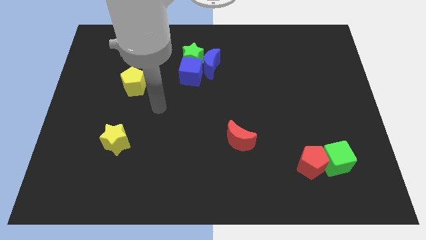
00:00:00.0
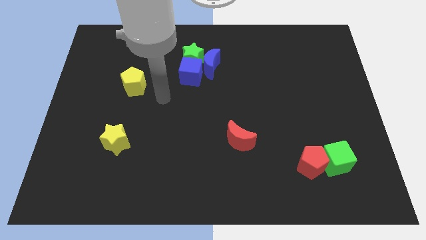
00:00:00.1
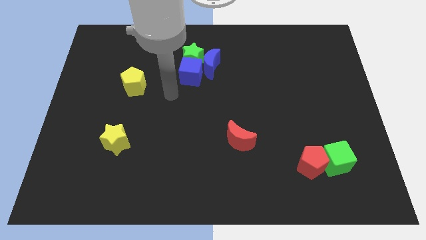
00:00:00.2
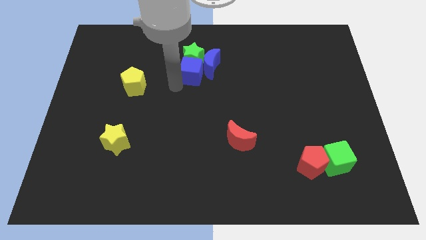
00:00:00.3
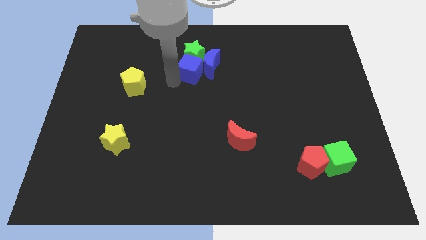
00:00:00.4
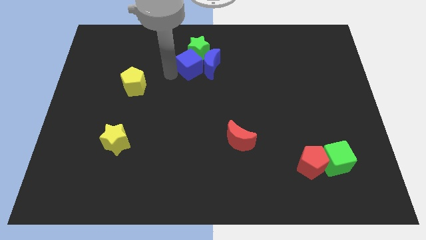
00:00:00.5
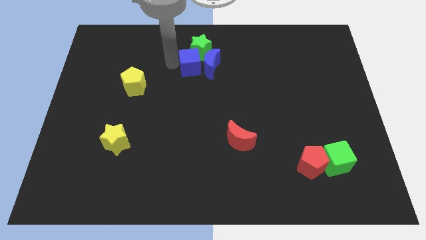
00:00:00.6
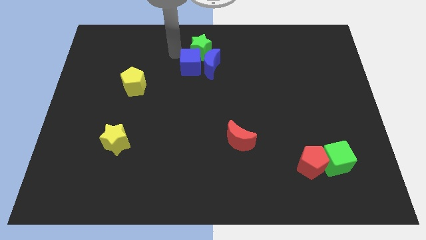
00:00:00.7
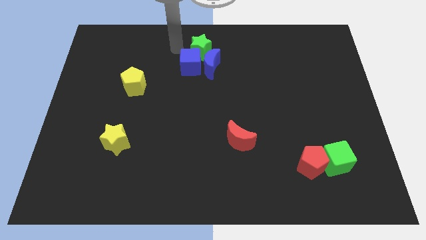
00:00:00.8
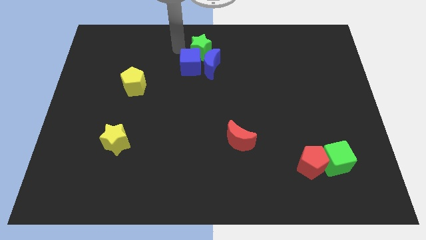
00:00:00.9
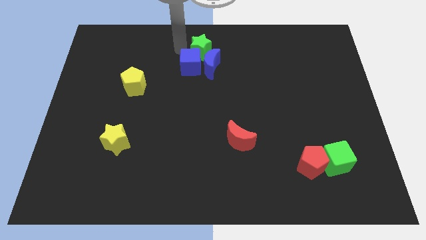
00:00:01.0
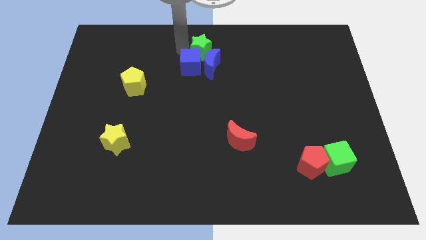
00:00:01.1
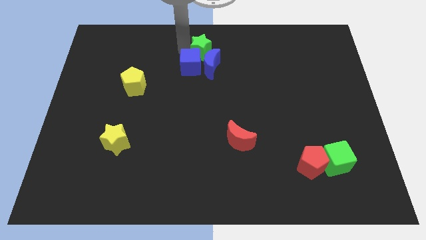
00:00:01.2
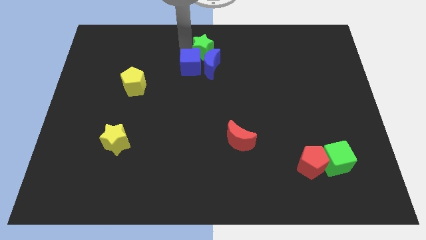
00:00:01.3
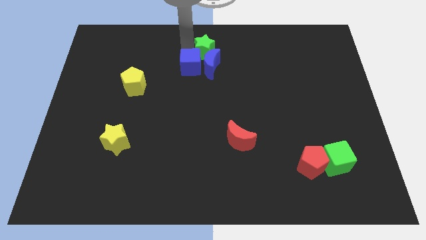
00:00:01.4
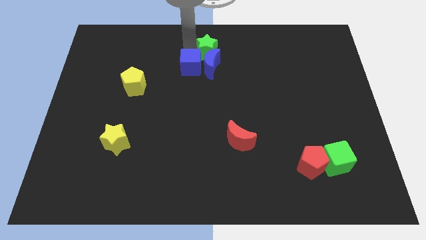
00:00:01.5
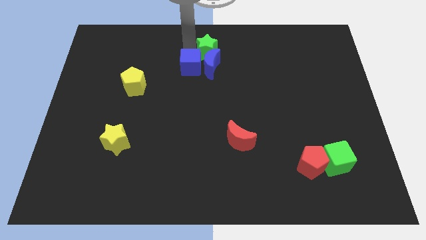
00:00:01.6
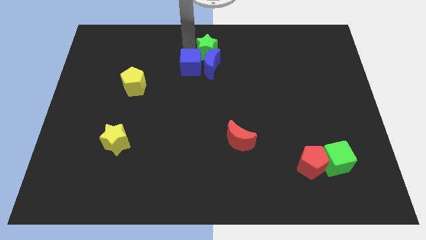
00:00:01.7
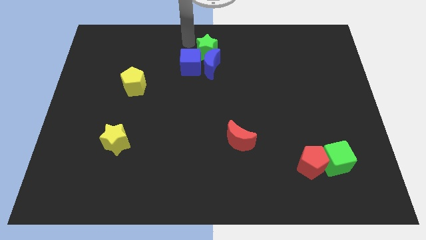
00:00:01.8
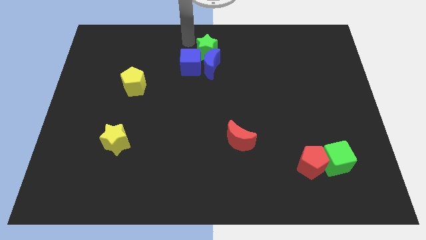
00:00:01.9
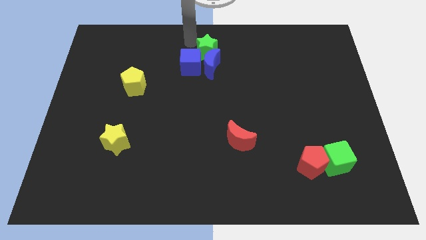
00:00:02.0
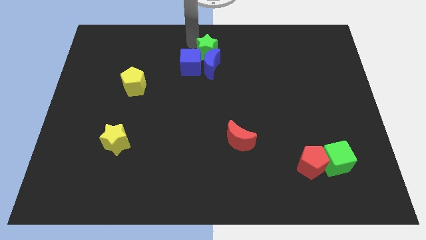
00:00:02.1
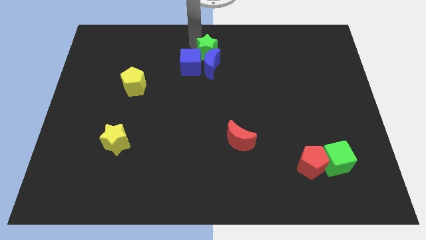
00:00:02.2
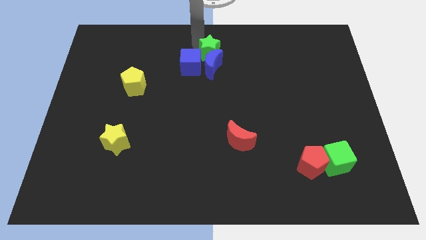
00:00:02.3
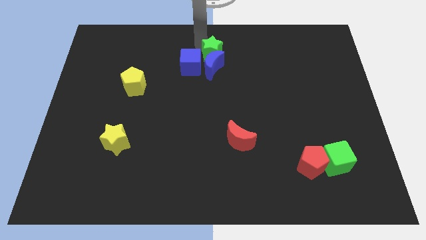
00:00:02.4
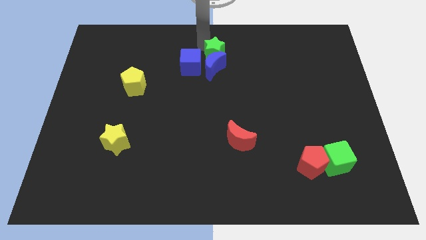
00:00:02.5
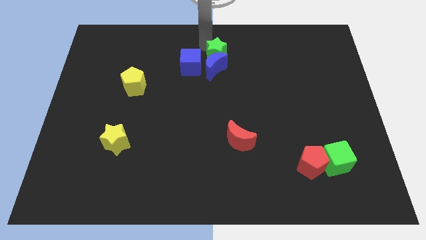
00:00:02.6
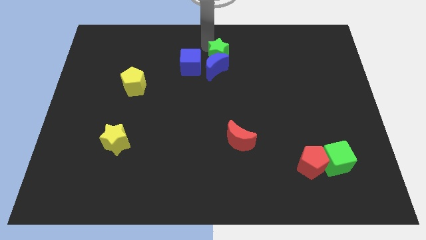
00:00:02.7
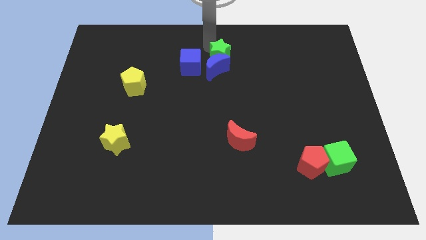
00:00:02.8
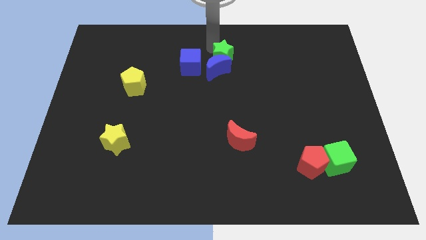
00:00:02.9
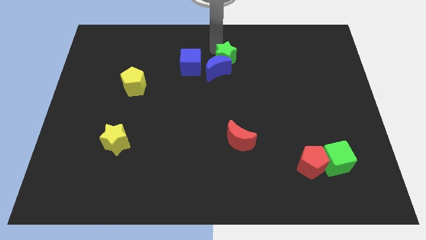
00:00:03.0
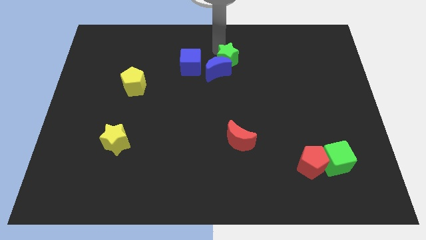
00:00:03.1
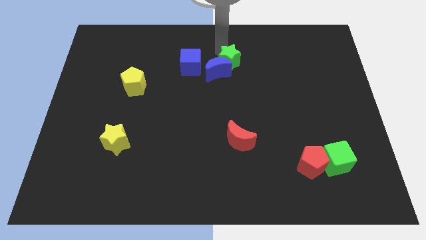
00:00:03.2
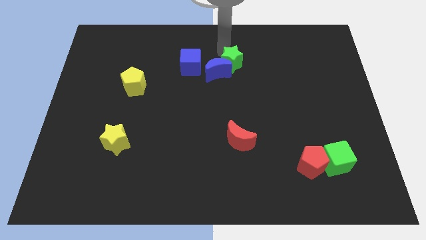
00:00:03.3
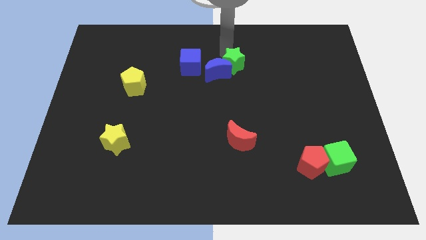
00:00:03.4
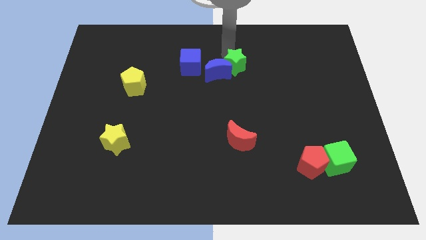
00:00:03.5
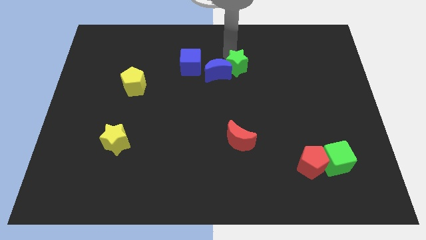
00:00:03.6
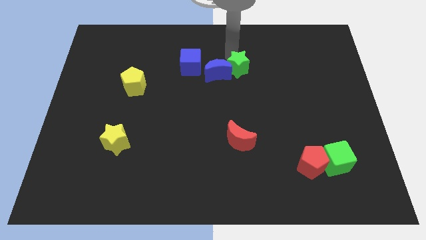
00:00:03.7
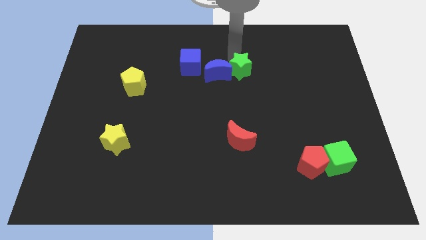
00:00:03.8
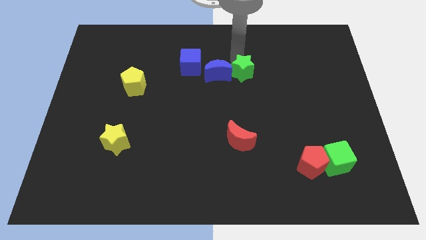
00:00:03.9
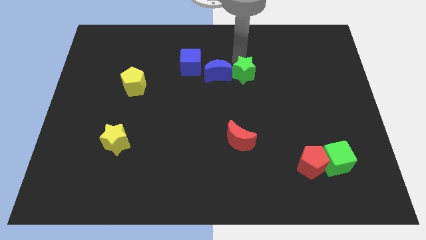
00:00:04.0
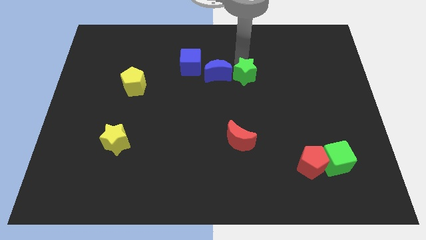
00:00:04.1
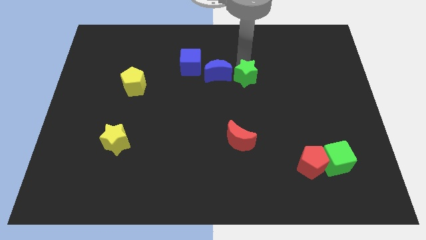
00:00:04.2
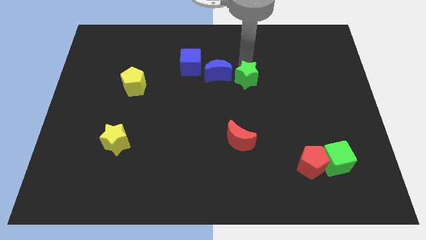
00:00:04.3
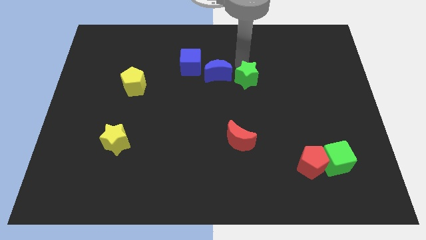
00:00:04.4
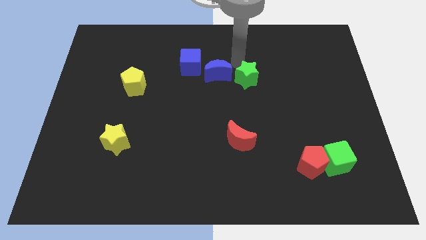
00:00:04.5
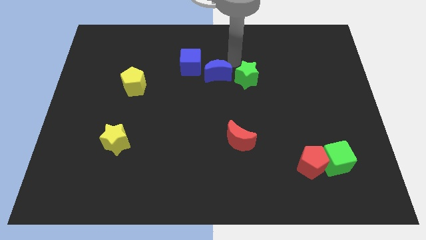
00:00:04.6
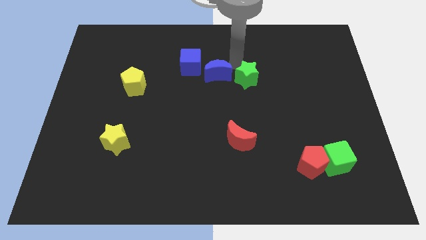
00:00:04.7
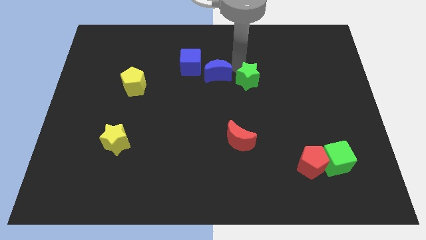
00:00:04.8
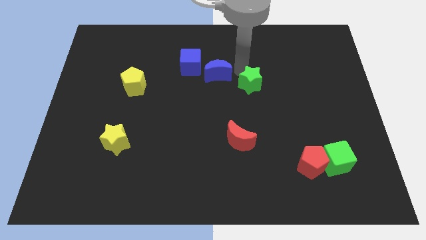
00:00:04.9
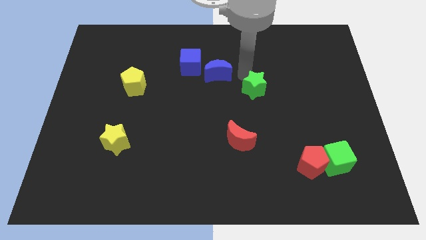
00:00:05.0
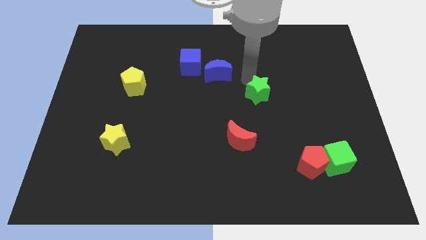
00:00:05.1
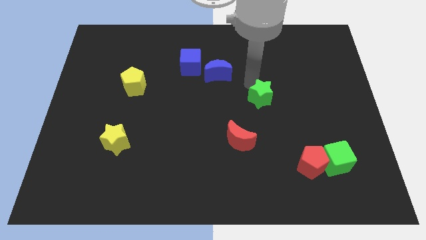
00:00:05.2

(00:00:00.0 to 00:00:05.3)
slide the green star downwards and then to the right

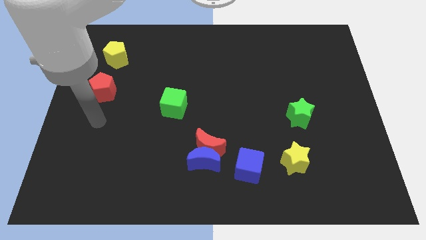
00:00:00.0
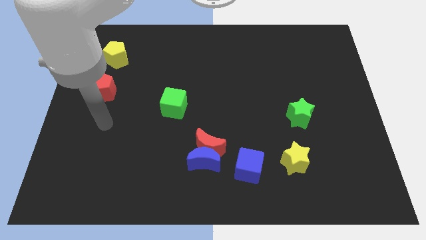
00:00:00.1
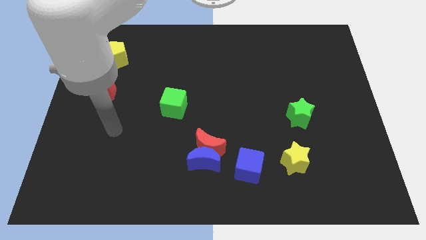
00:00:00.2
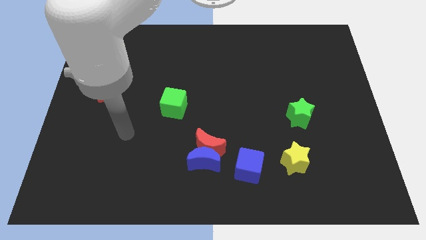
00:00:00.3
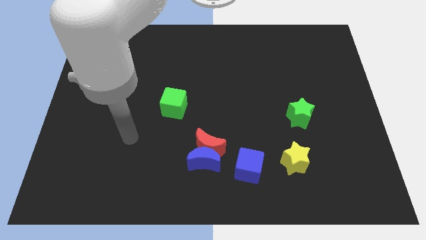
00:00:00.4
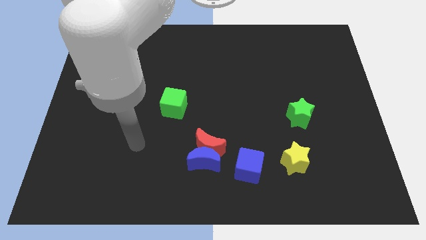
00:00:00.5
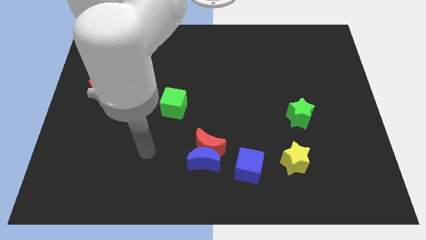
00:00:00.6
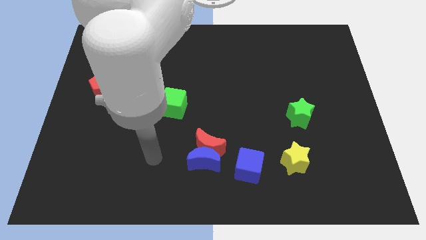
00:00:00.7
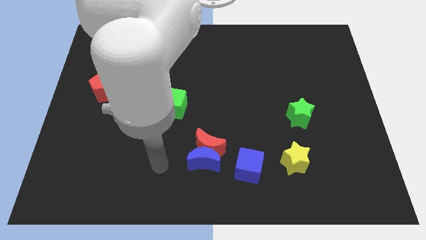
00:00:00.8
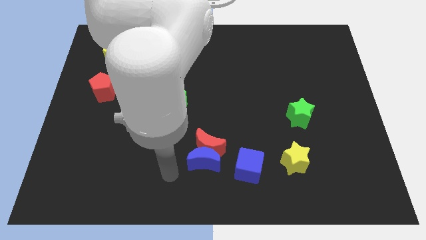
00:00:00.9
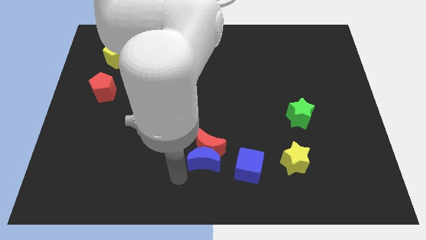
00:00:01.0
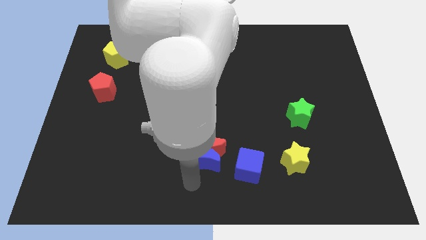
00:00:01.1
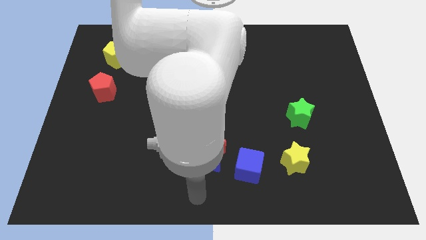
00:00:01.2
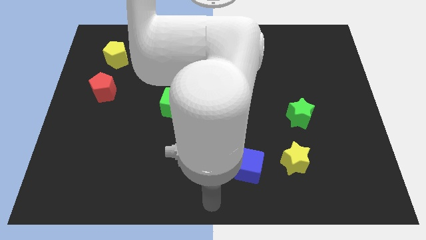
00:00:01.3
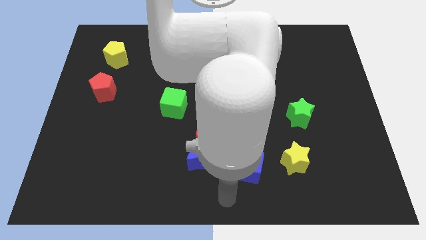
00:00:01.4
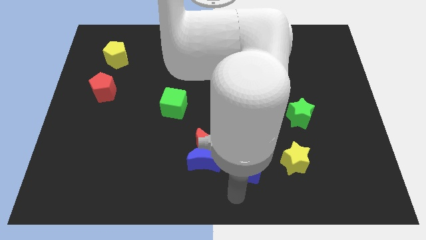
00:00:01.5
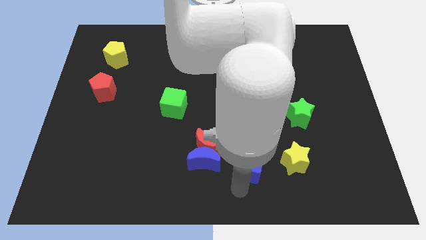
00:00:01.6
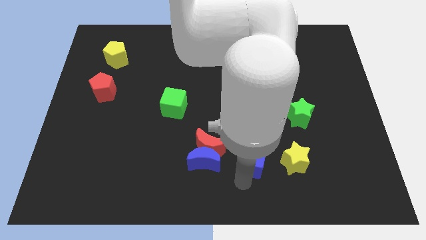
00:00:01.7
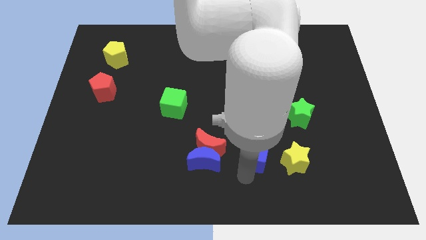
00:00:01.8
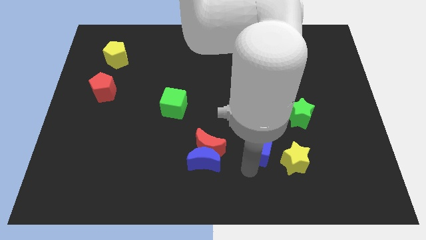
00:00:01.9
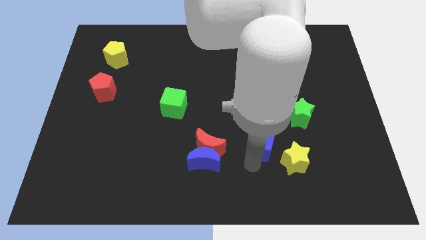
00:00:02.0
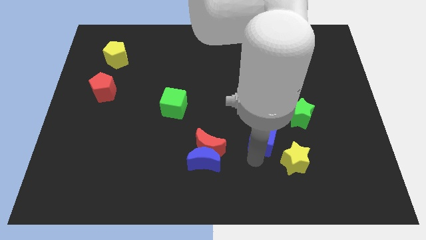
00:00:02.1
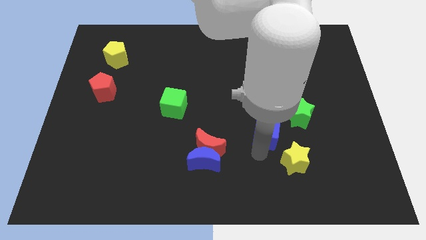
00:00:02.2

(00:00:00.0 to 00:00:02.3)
move the blue cube a little up

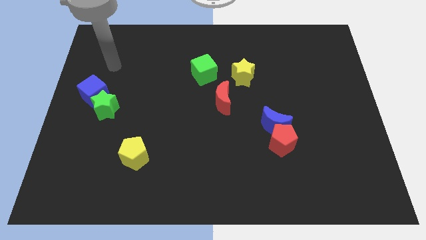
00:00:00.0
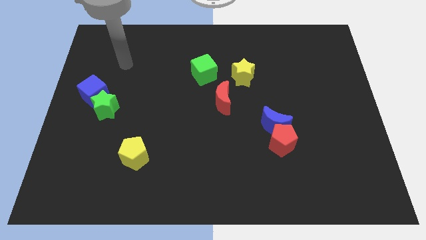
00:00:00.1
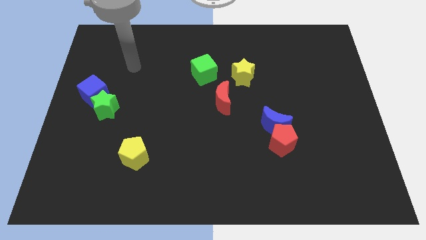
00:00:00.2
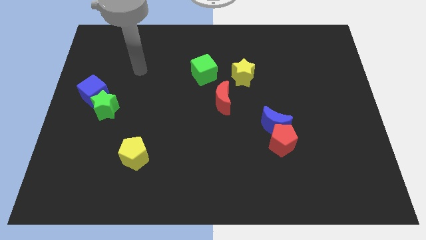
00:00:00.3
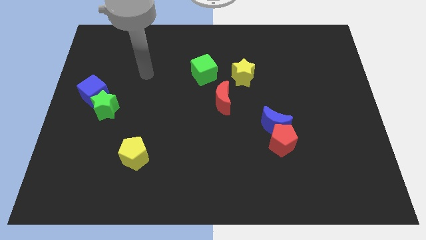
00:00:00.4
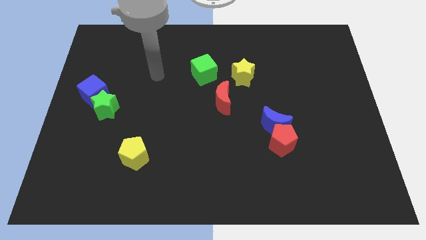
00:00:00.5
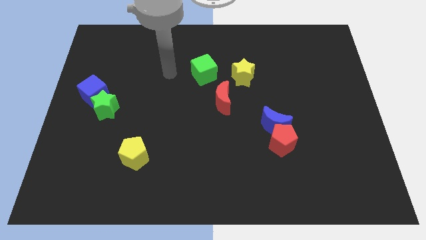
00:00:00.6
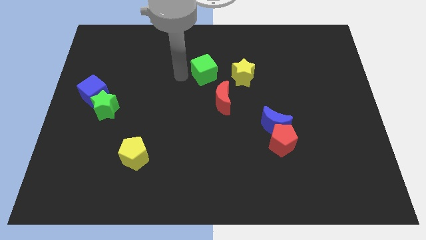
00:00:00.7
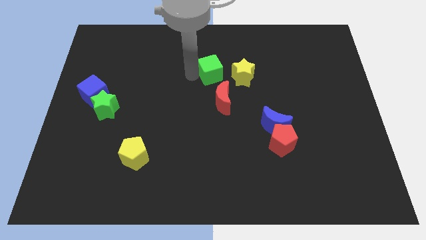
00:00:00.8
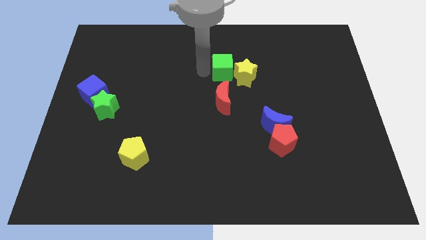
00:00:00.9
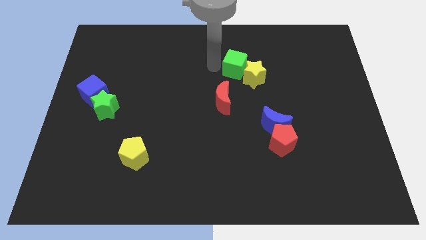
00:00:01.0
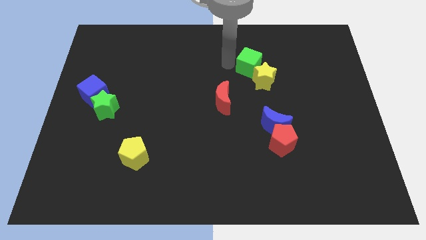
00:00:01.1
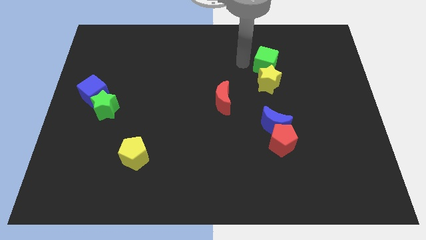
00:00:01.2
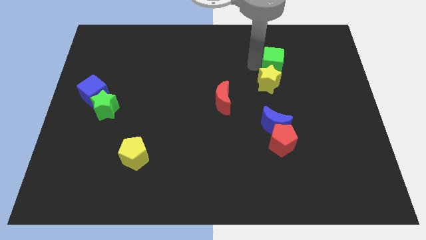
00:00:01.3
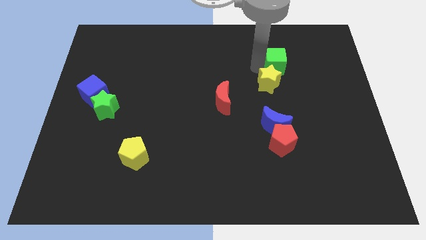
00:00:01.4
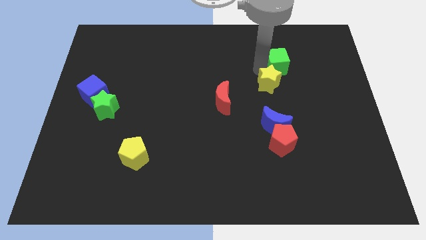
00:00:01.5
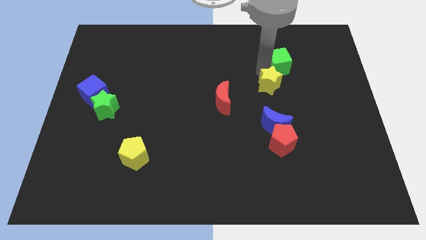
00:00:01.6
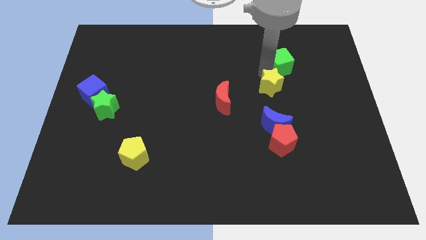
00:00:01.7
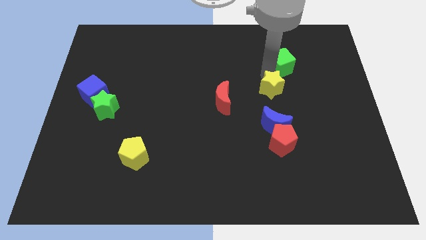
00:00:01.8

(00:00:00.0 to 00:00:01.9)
move the yellow star a little bit down and to the right
